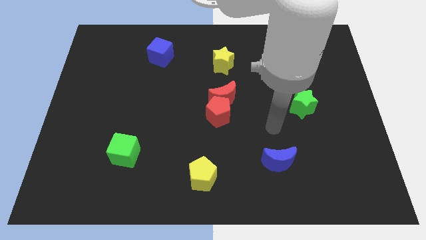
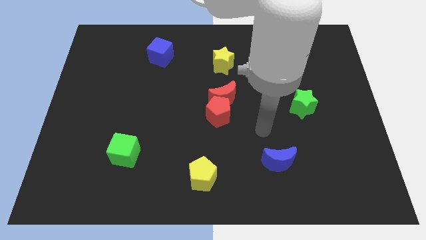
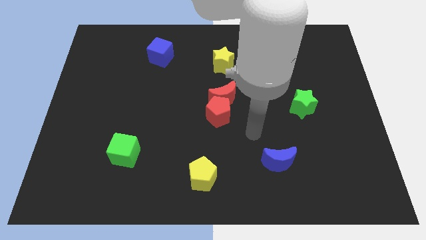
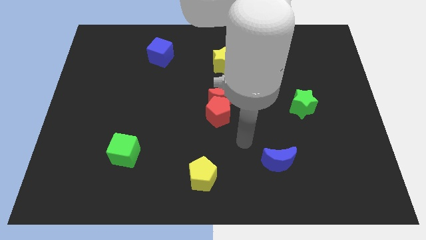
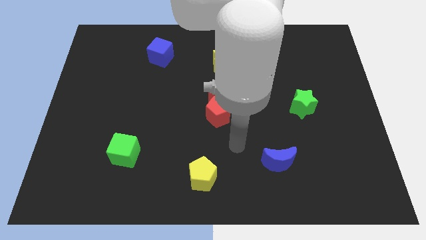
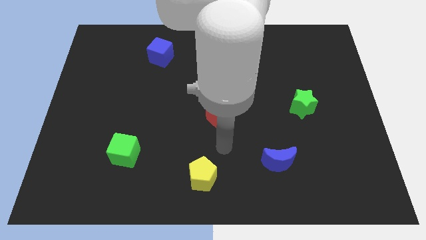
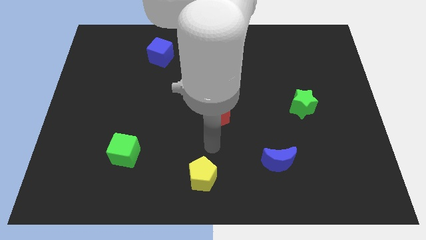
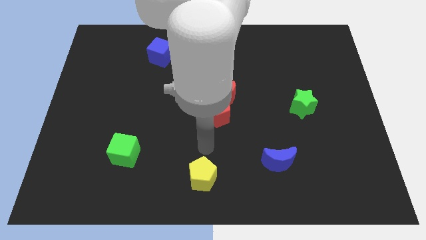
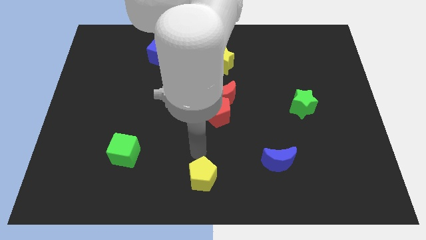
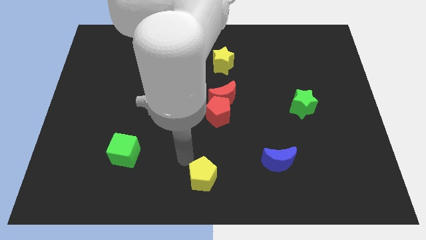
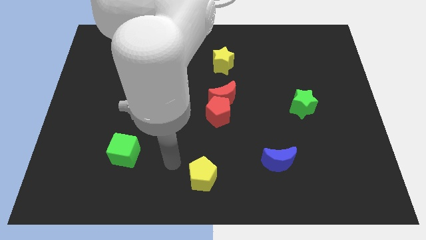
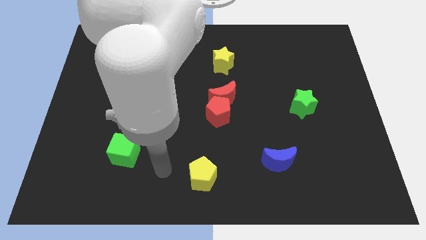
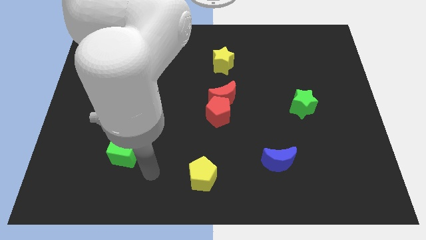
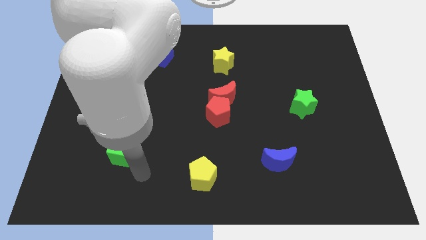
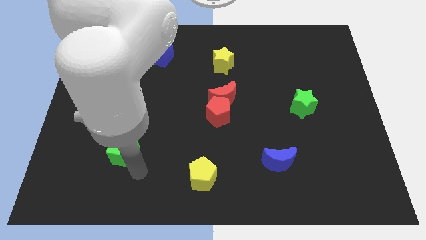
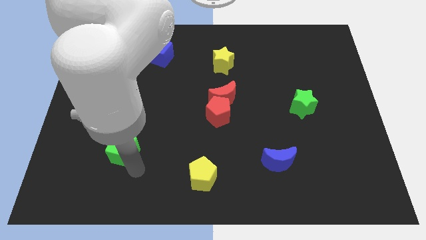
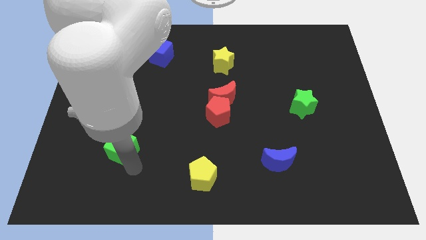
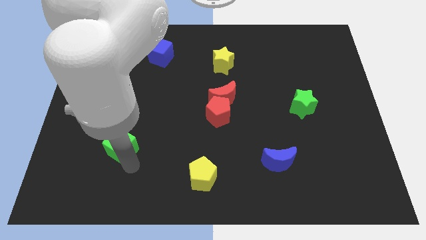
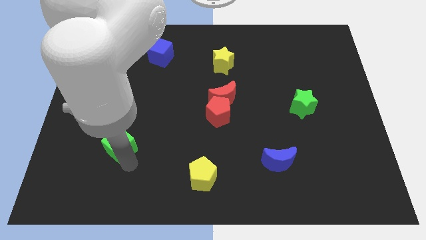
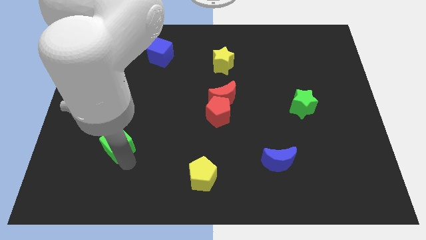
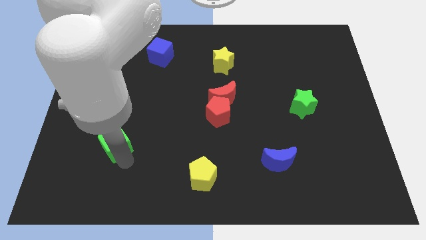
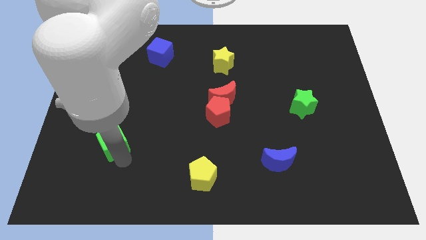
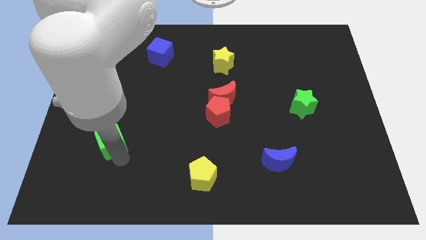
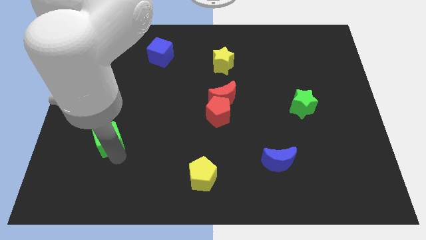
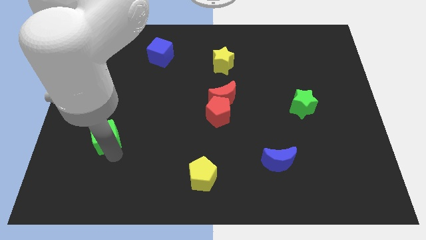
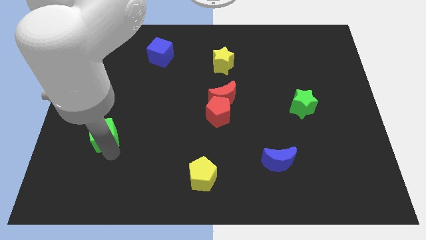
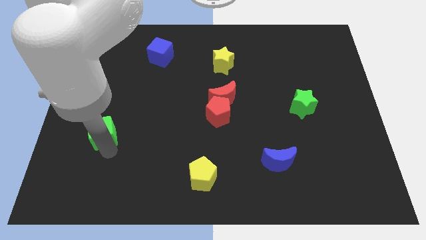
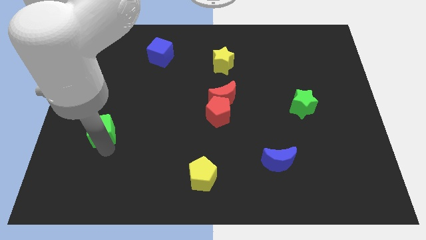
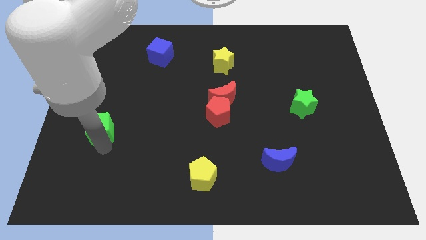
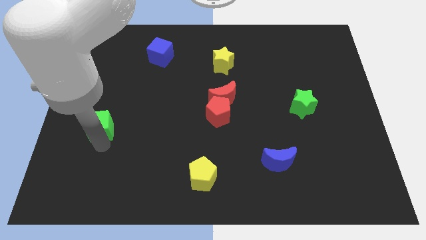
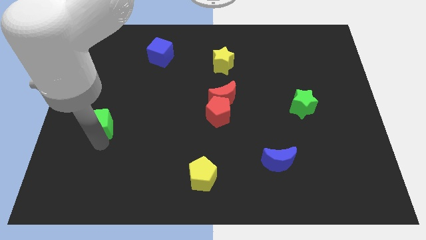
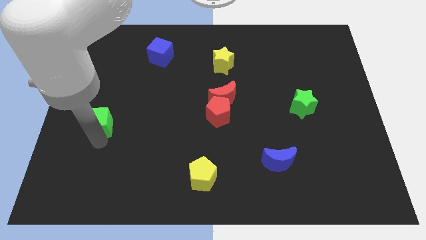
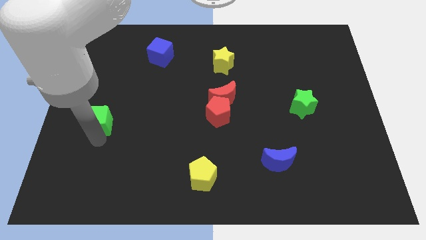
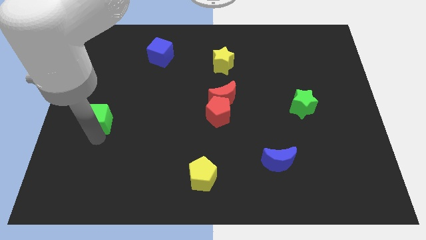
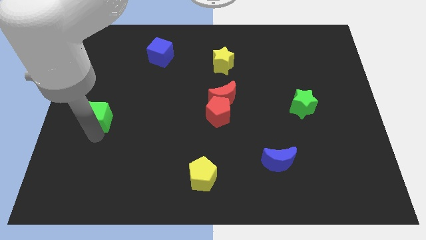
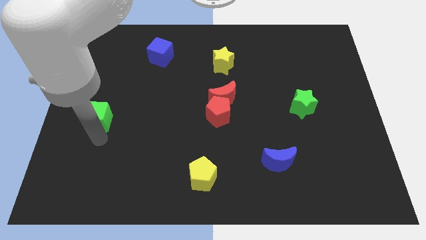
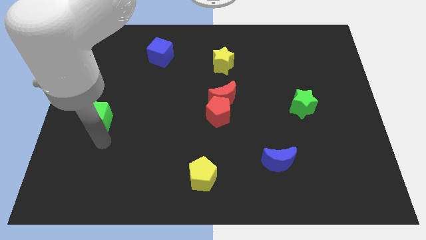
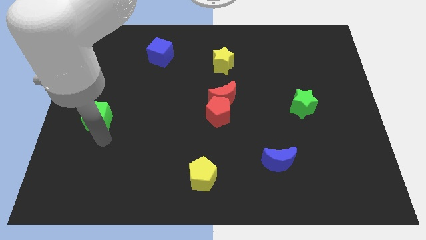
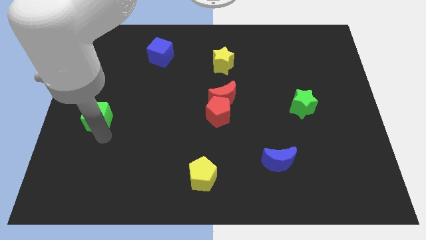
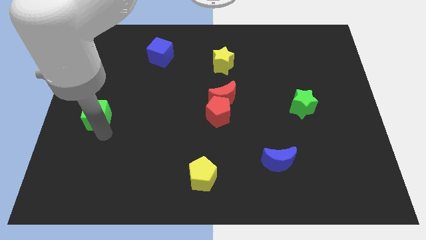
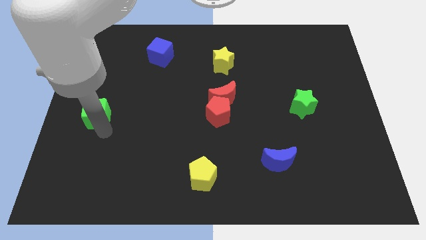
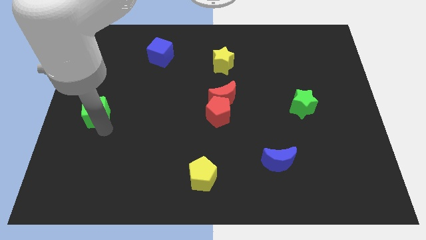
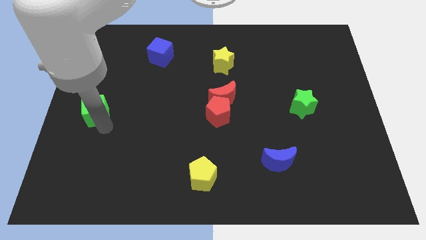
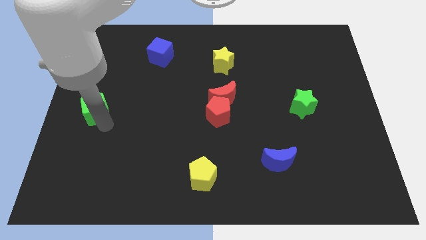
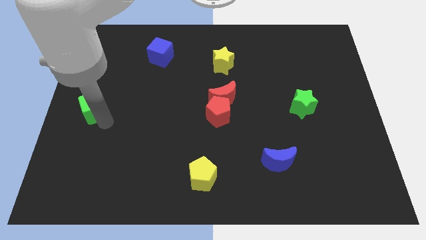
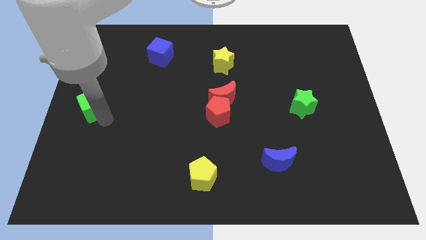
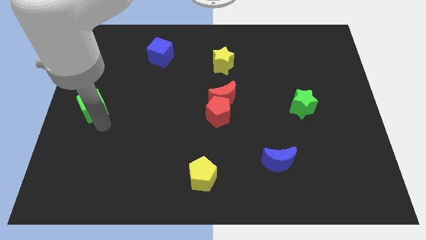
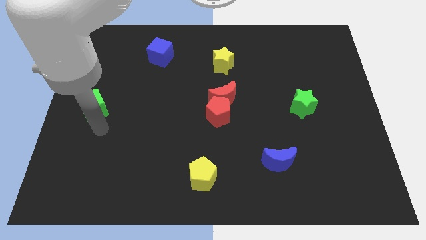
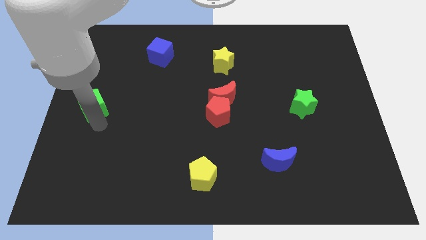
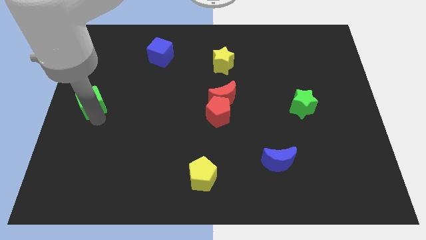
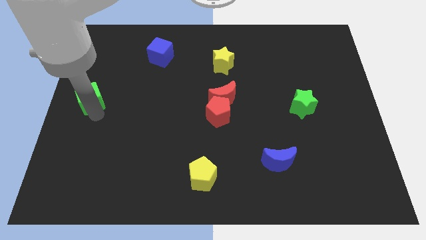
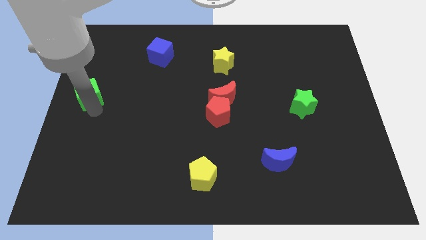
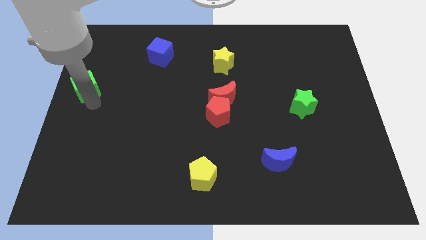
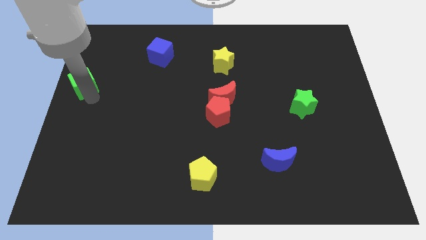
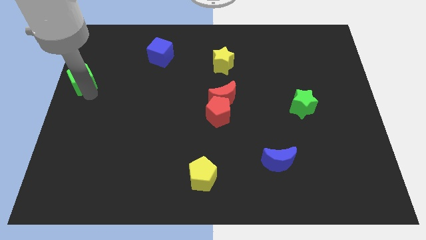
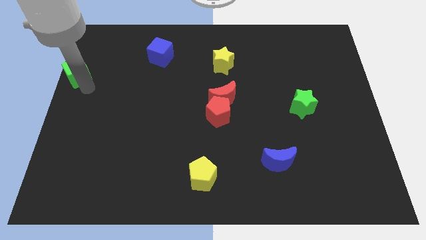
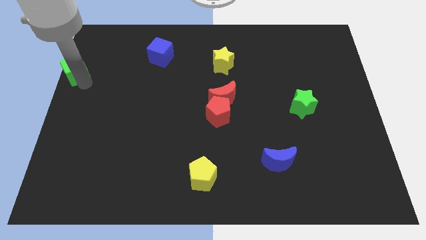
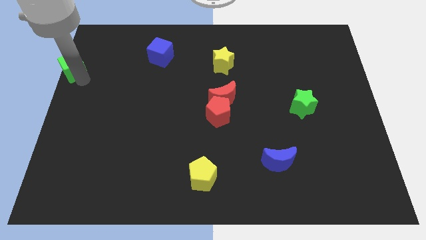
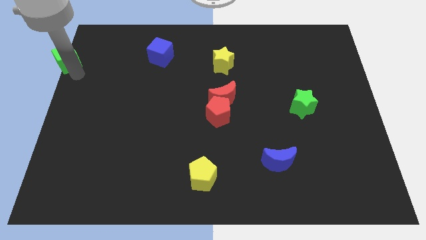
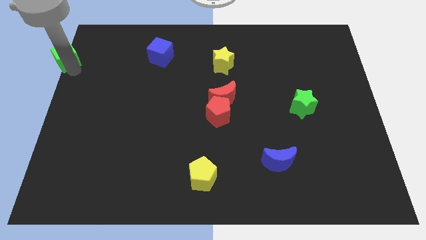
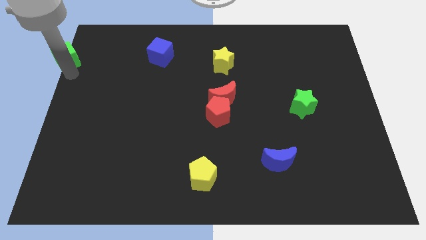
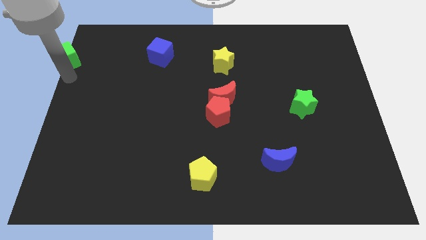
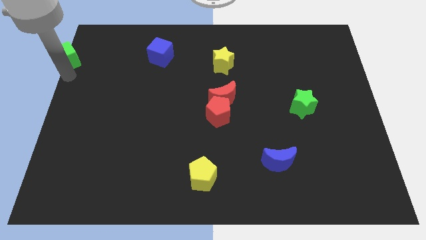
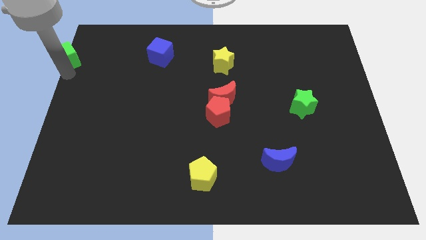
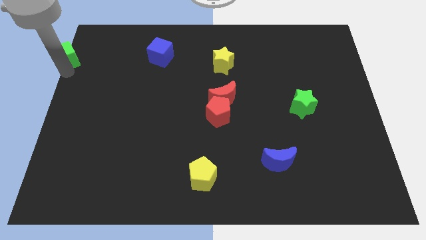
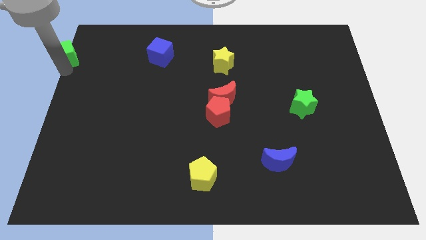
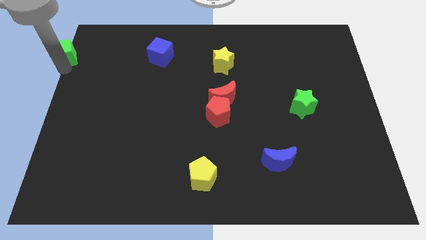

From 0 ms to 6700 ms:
put the green cube to the top left of the board

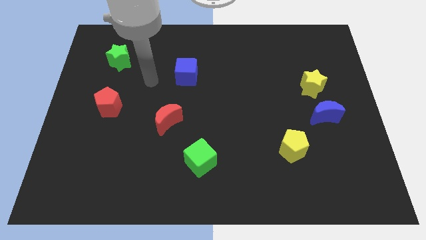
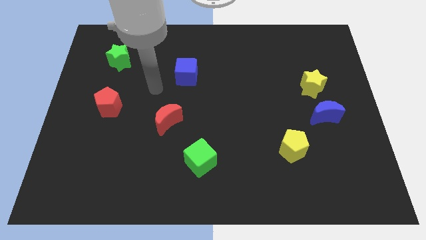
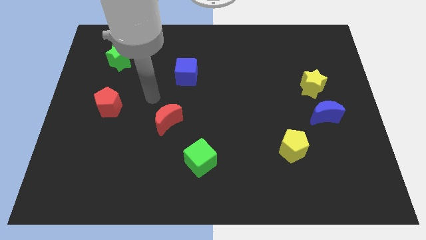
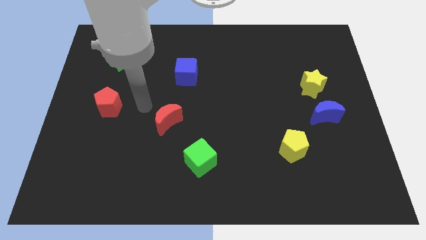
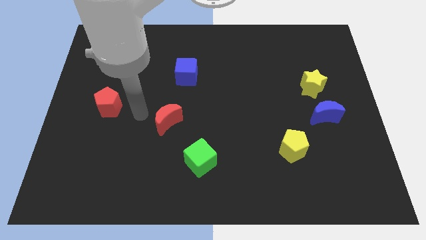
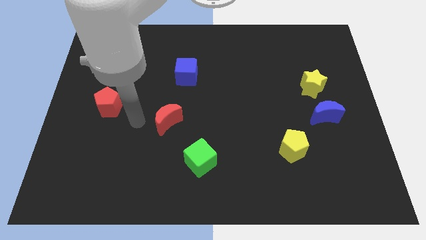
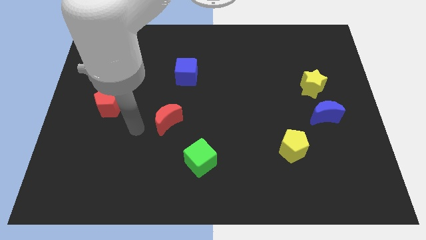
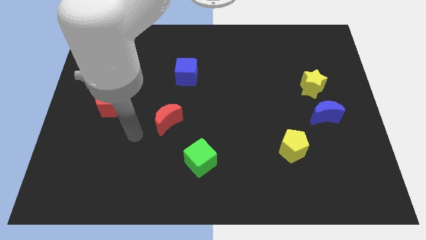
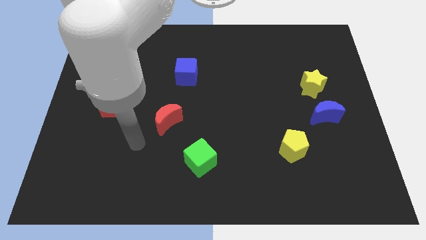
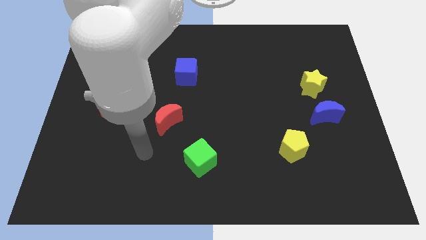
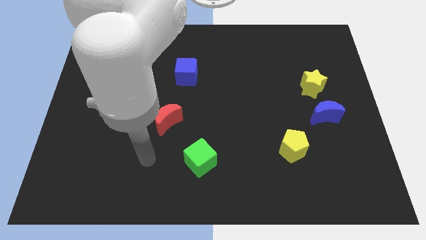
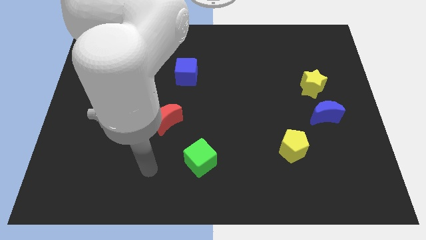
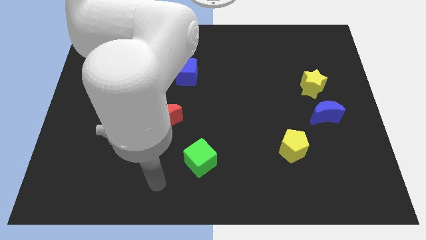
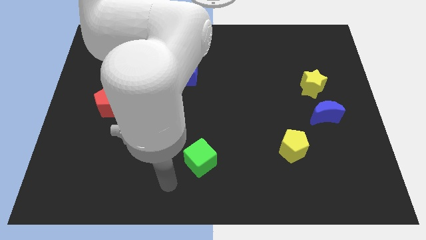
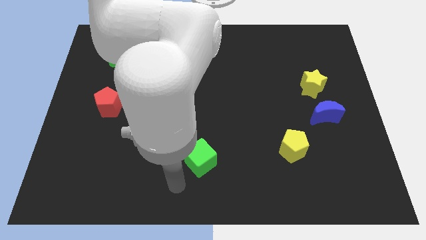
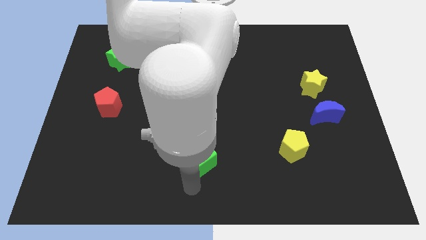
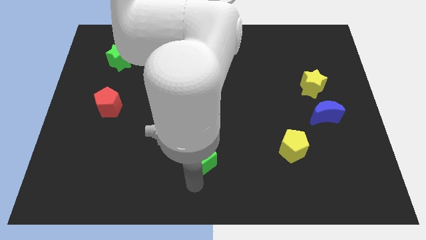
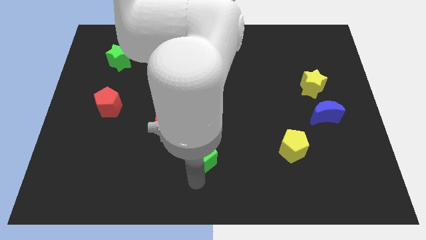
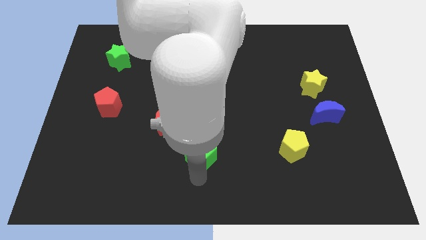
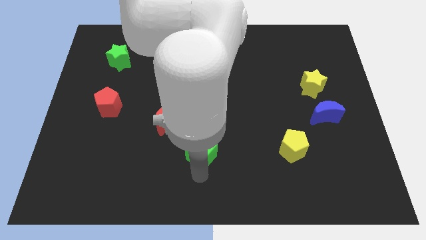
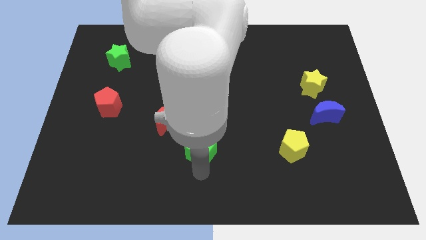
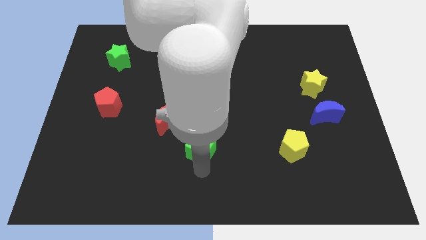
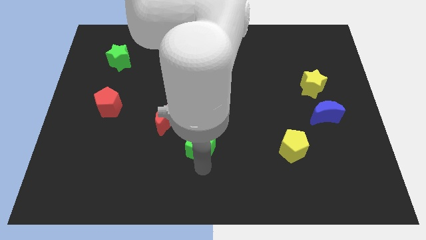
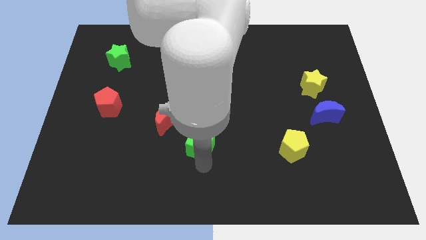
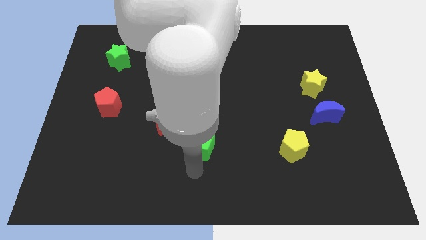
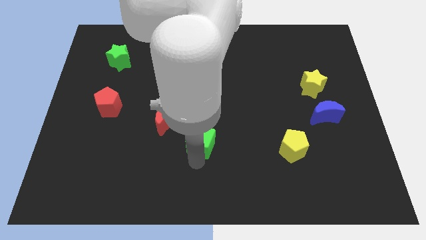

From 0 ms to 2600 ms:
slide the green cube to the middle
